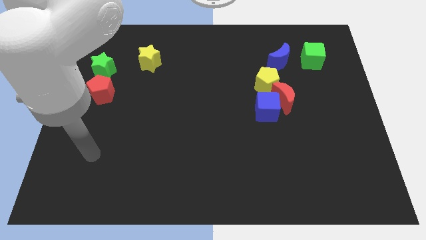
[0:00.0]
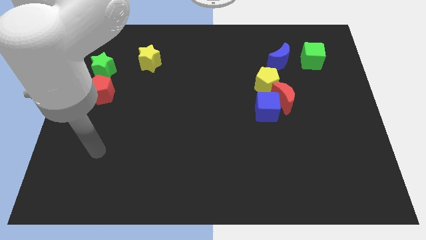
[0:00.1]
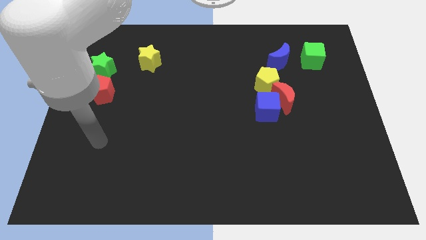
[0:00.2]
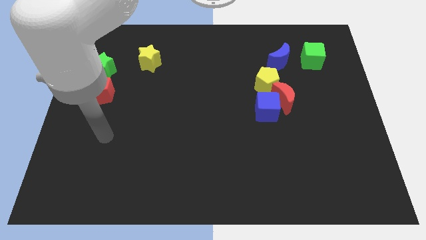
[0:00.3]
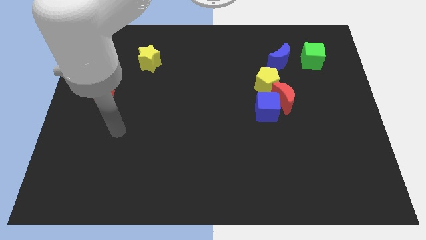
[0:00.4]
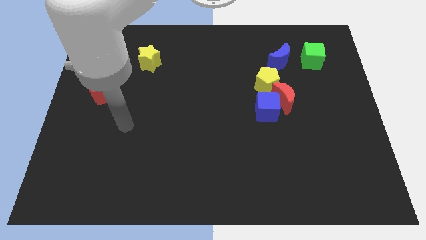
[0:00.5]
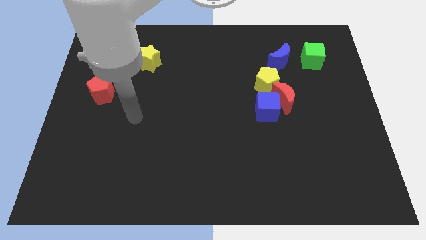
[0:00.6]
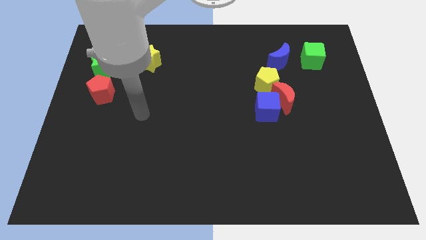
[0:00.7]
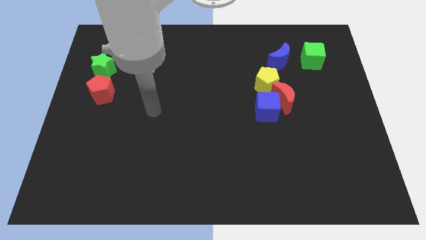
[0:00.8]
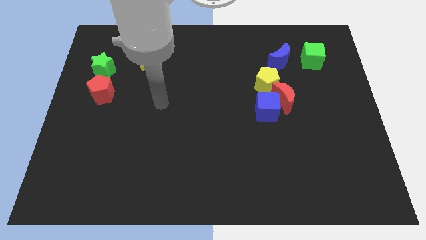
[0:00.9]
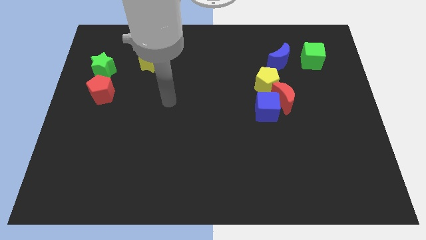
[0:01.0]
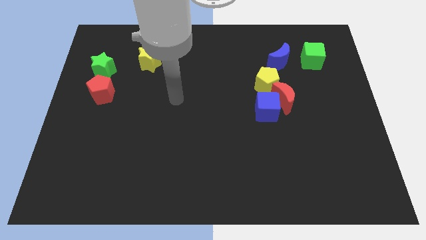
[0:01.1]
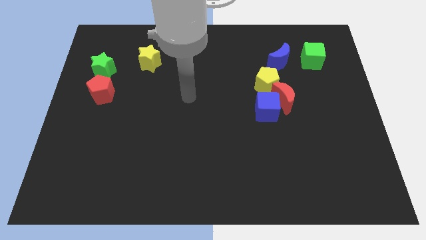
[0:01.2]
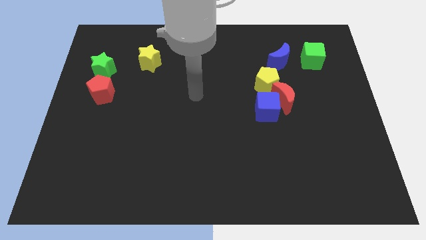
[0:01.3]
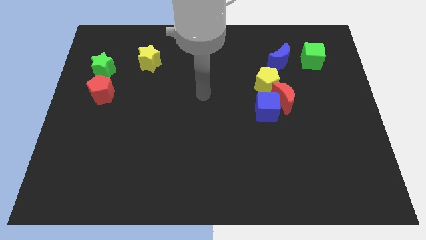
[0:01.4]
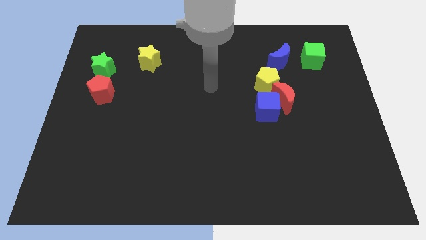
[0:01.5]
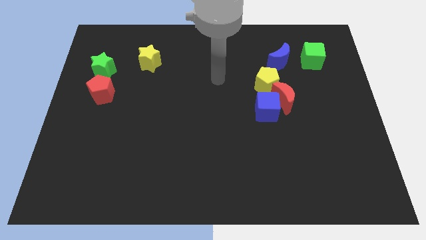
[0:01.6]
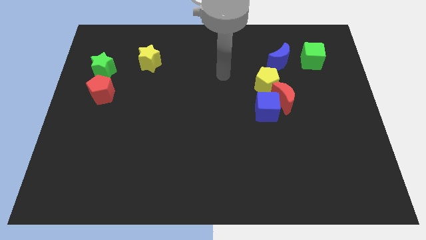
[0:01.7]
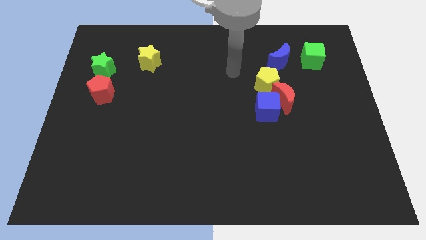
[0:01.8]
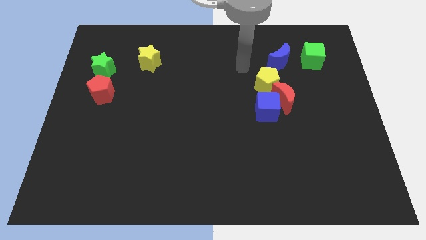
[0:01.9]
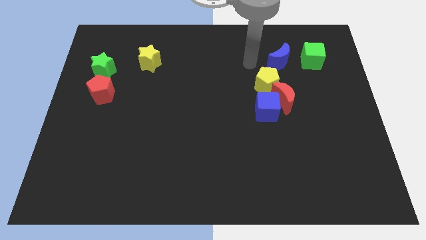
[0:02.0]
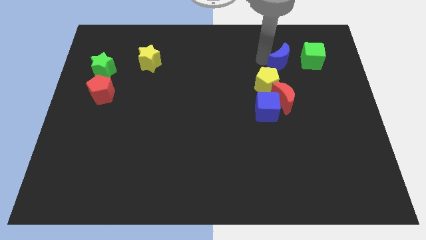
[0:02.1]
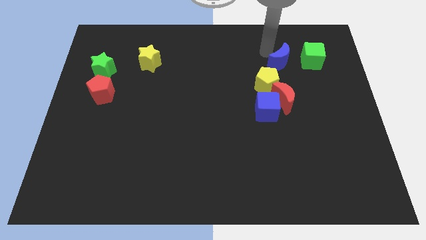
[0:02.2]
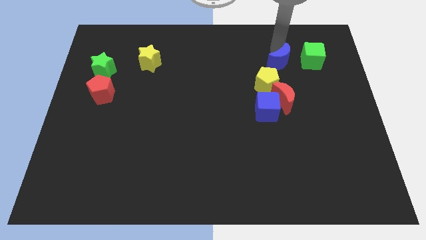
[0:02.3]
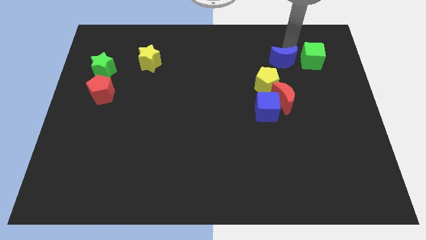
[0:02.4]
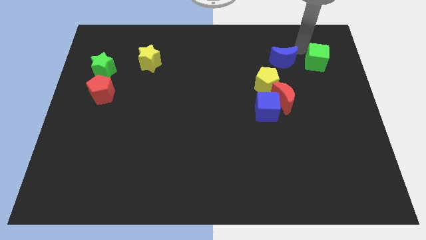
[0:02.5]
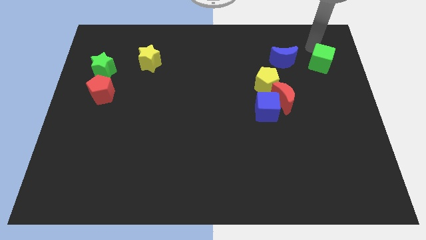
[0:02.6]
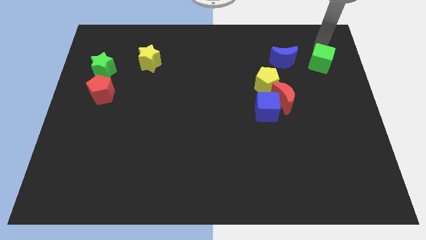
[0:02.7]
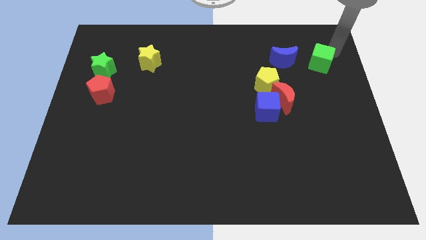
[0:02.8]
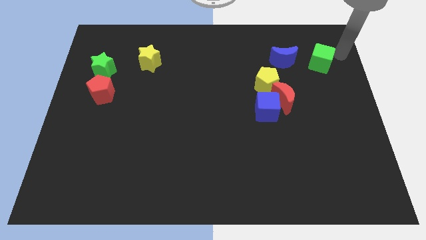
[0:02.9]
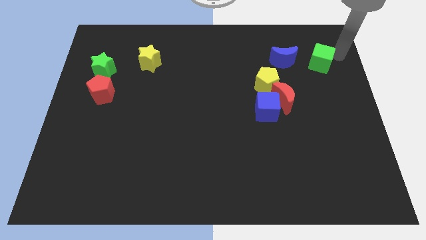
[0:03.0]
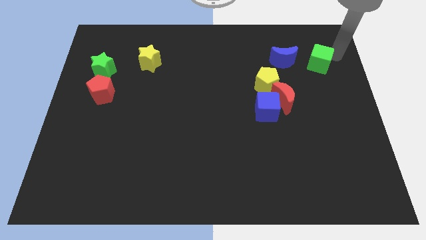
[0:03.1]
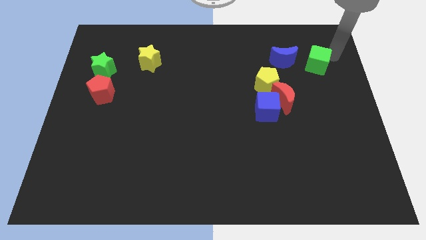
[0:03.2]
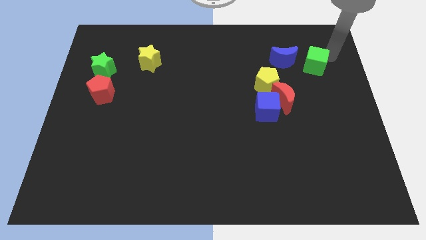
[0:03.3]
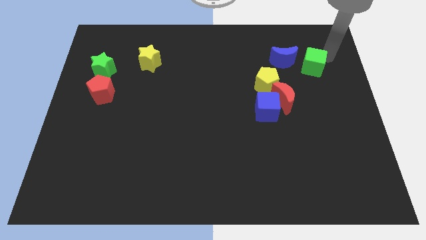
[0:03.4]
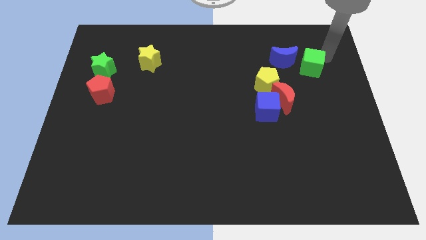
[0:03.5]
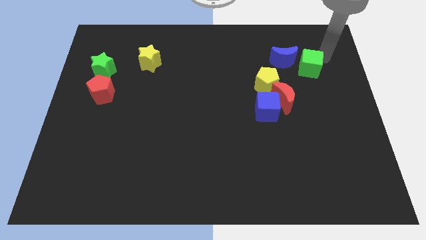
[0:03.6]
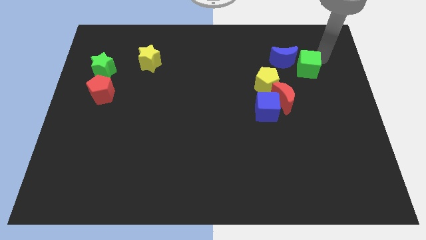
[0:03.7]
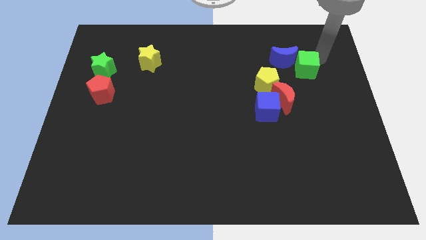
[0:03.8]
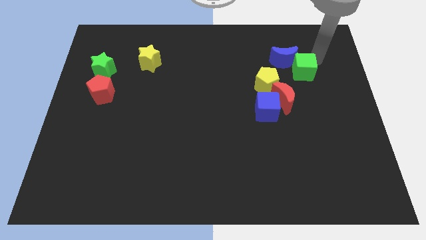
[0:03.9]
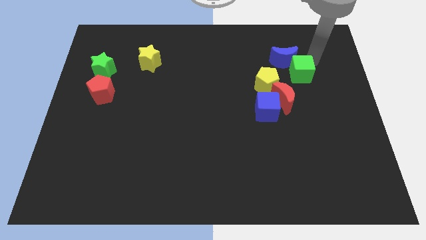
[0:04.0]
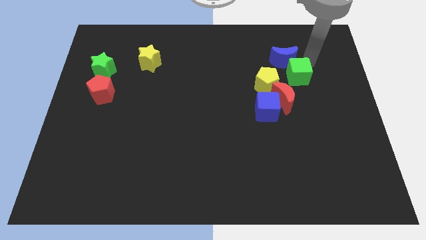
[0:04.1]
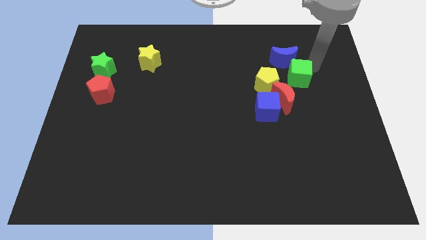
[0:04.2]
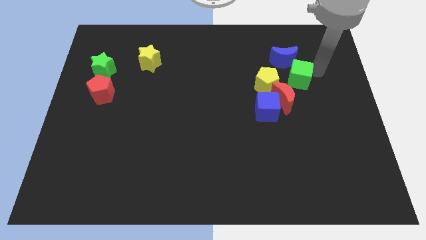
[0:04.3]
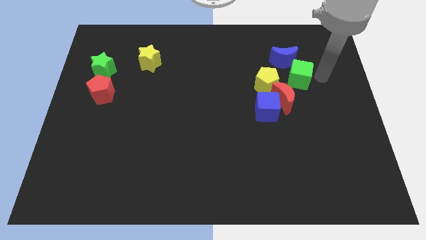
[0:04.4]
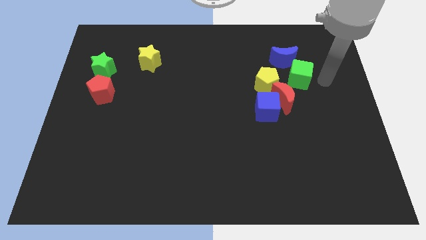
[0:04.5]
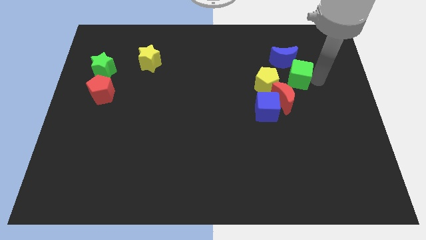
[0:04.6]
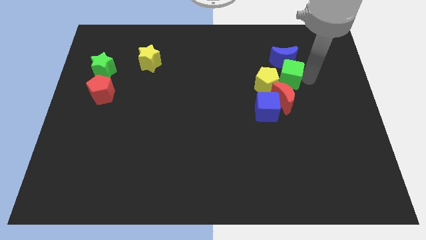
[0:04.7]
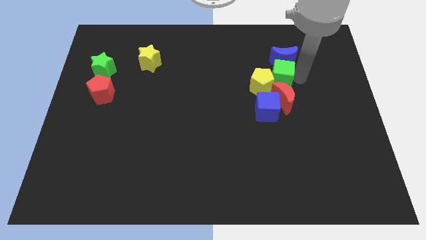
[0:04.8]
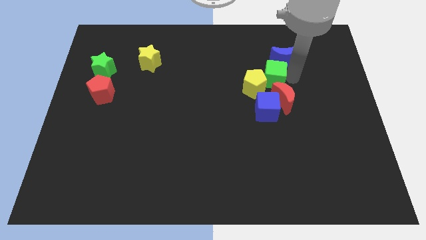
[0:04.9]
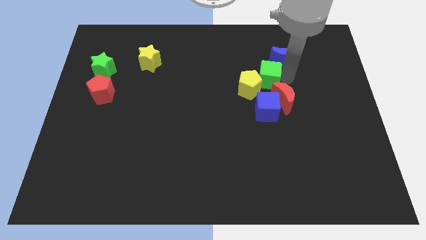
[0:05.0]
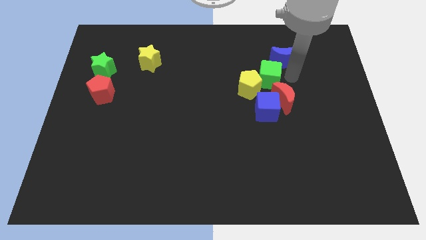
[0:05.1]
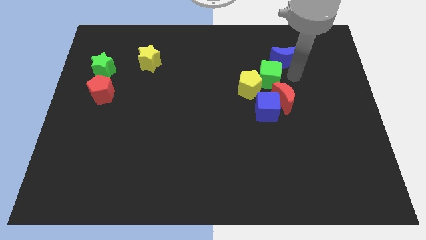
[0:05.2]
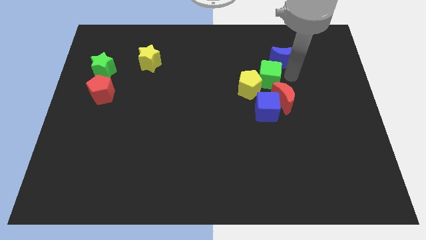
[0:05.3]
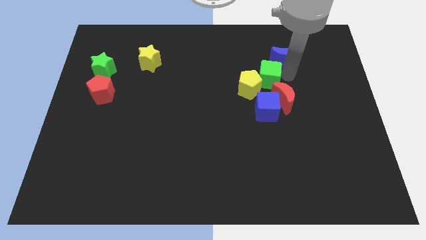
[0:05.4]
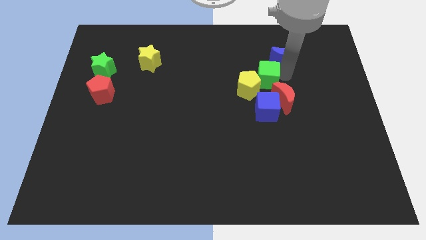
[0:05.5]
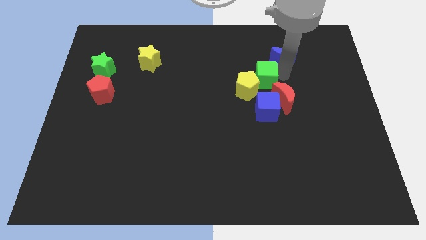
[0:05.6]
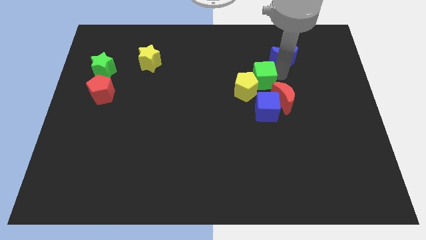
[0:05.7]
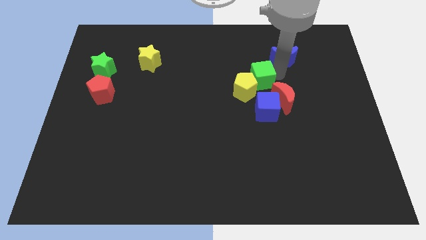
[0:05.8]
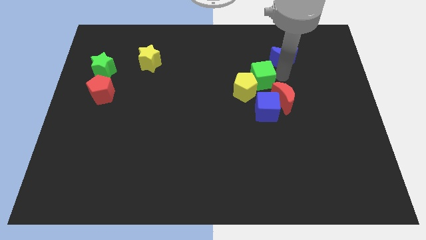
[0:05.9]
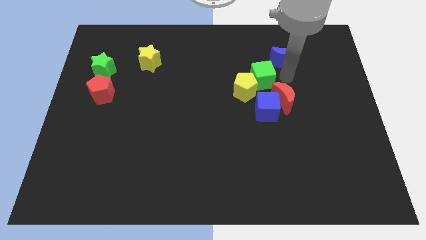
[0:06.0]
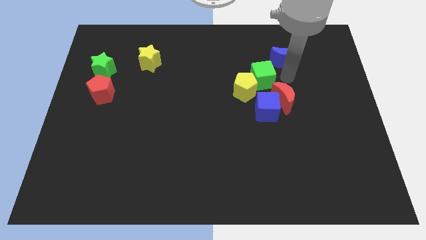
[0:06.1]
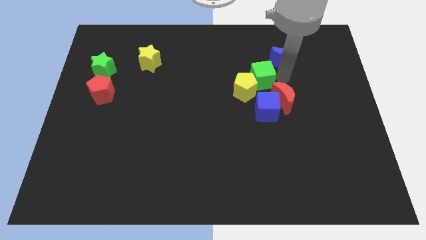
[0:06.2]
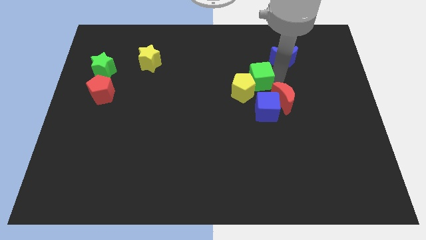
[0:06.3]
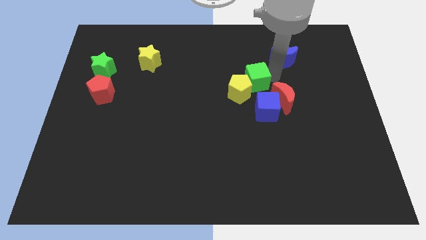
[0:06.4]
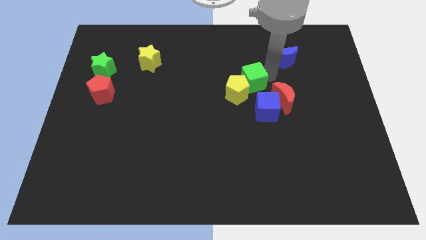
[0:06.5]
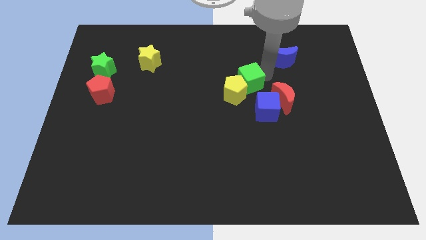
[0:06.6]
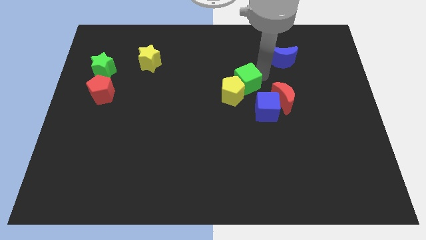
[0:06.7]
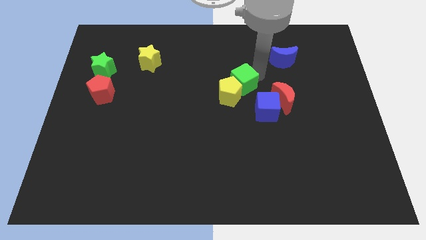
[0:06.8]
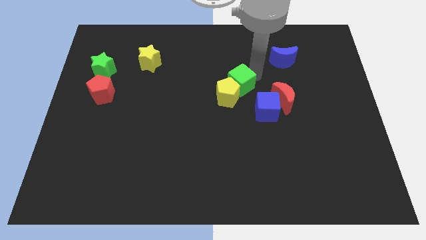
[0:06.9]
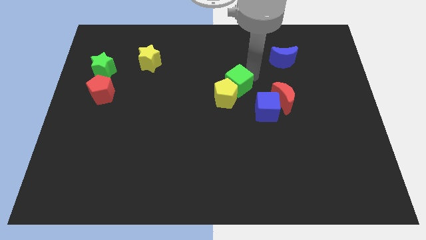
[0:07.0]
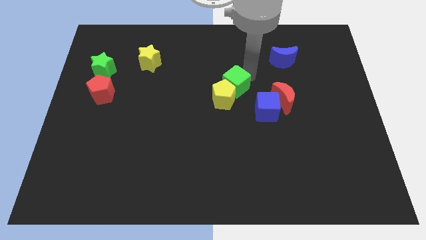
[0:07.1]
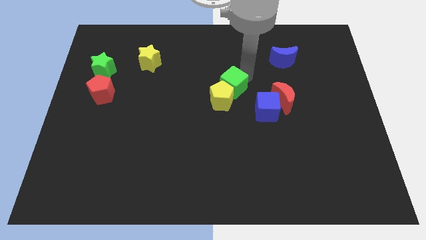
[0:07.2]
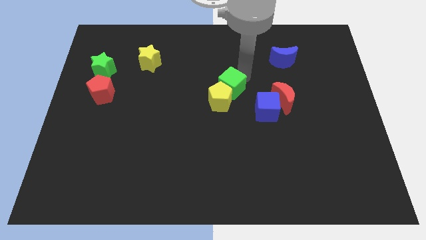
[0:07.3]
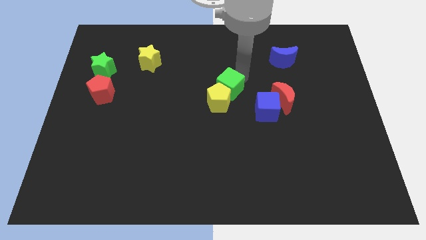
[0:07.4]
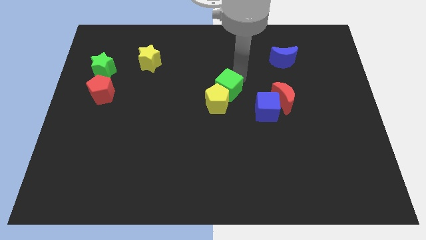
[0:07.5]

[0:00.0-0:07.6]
push the green cube diagonally downwards and to the left
